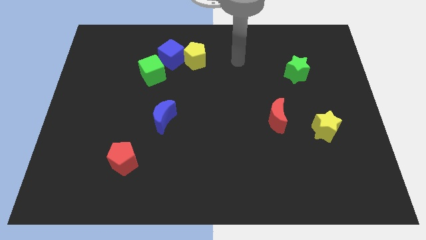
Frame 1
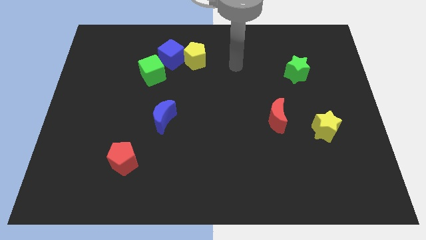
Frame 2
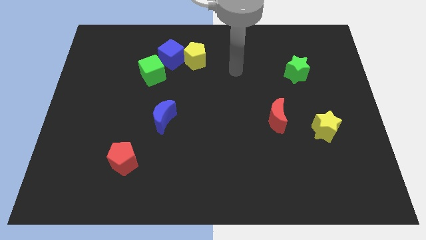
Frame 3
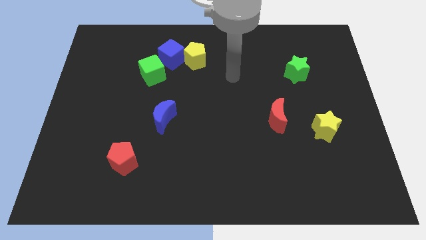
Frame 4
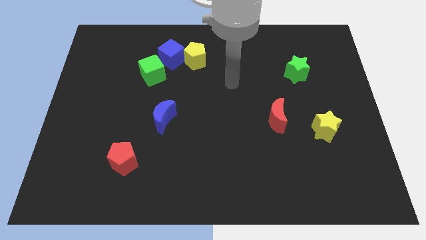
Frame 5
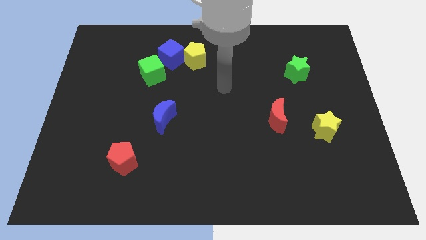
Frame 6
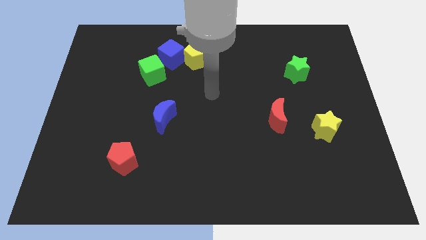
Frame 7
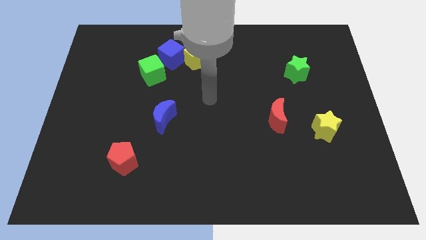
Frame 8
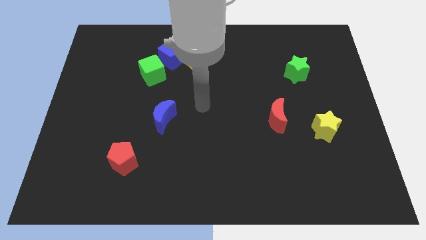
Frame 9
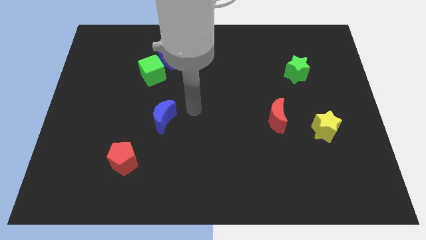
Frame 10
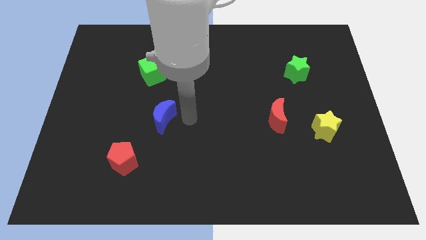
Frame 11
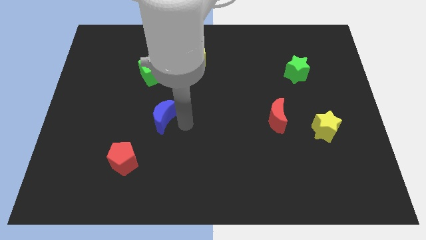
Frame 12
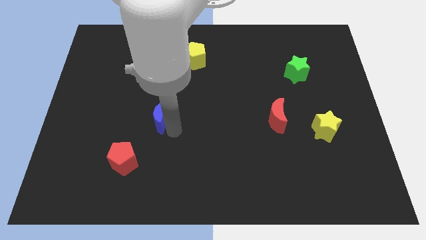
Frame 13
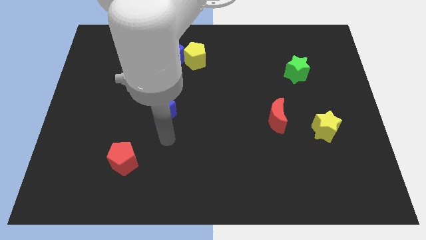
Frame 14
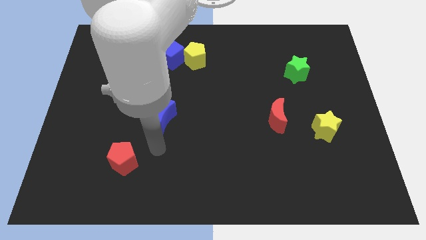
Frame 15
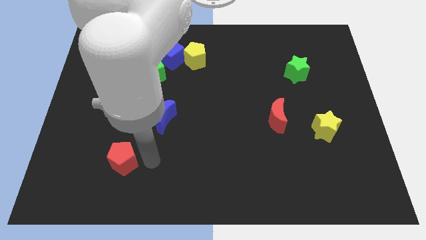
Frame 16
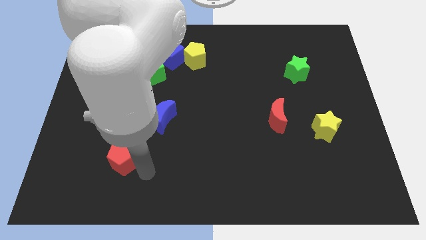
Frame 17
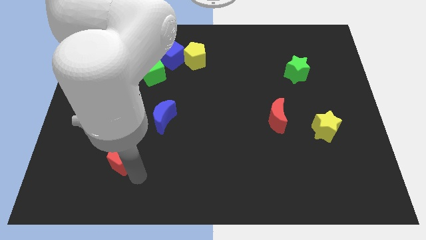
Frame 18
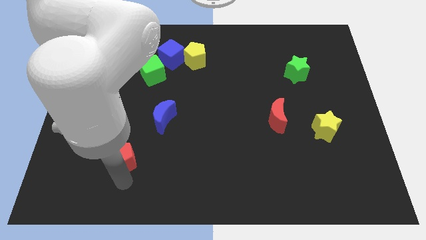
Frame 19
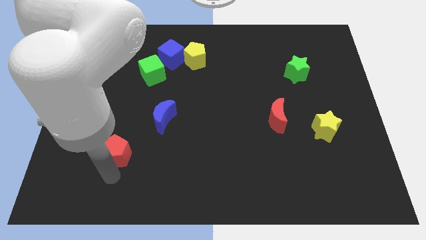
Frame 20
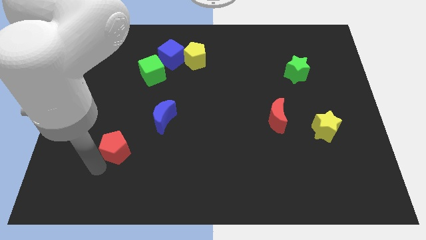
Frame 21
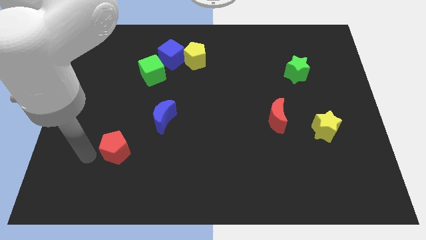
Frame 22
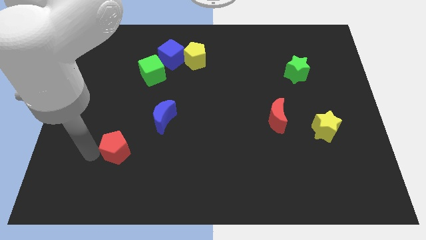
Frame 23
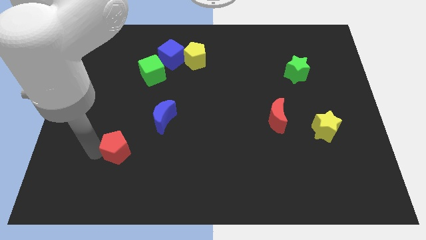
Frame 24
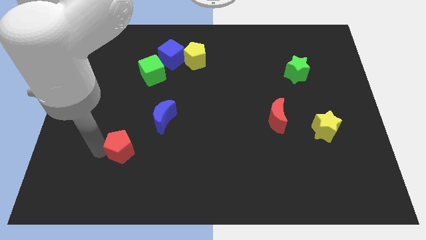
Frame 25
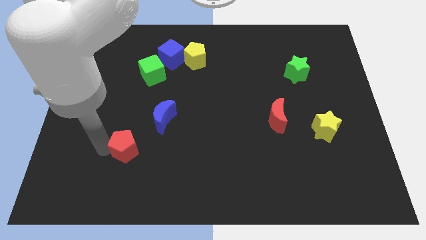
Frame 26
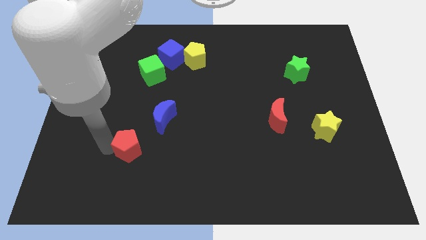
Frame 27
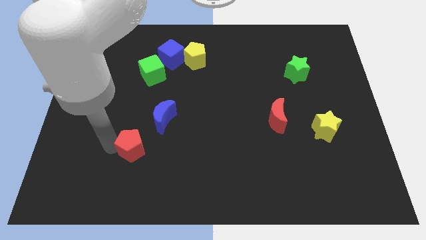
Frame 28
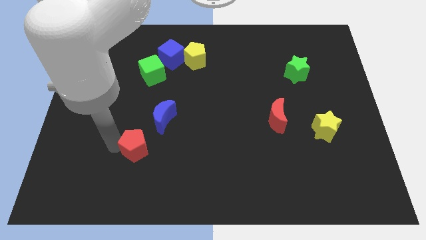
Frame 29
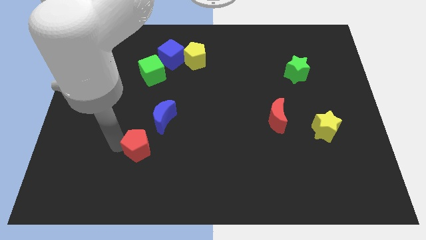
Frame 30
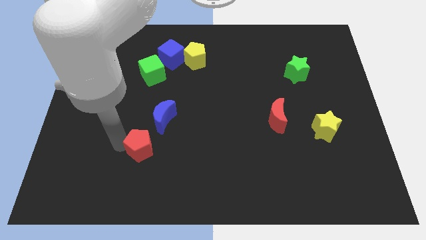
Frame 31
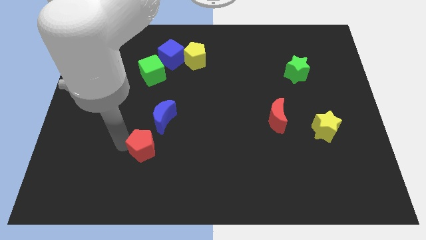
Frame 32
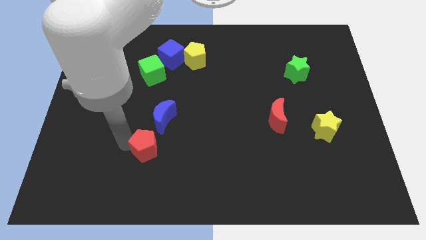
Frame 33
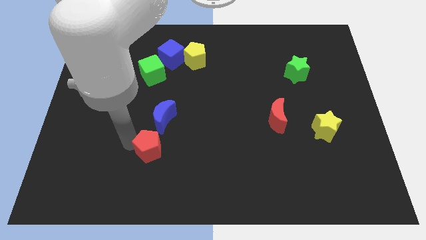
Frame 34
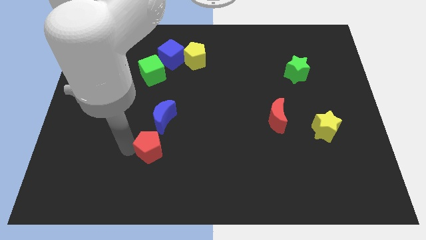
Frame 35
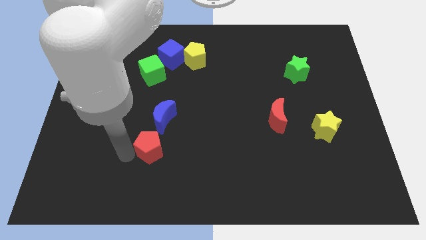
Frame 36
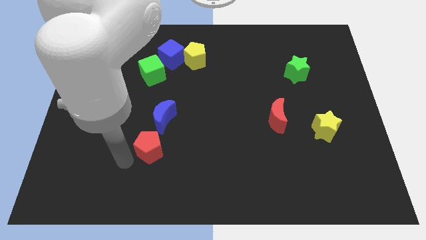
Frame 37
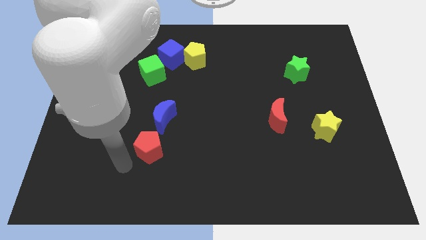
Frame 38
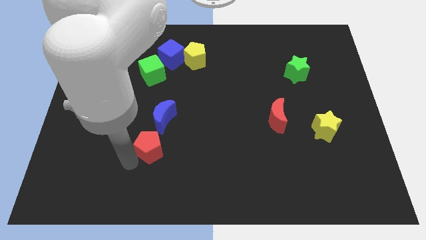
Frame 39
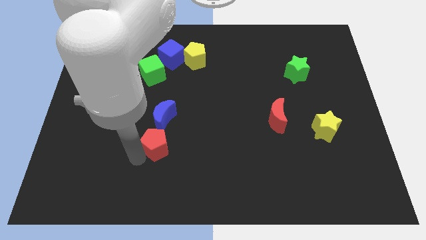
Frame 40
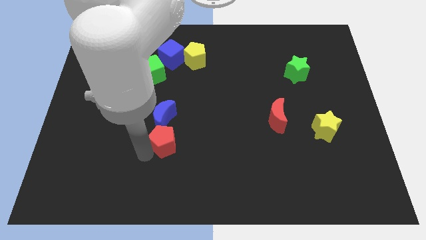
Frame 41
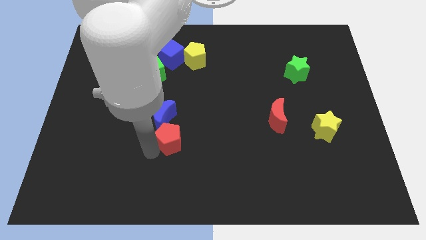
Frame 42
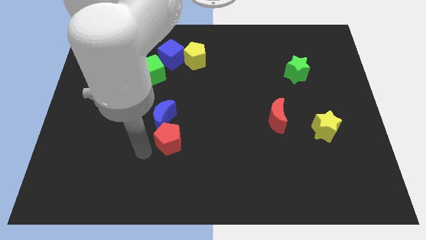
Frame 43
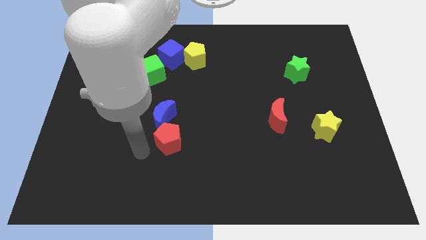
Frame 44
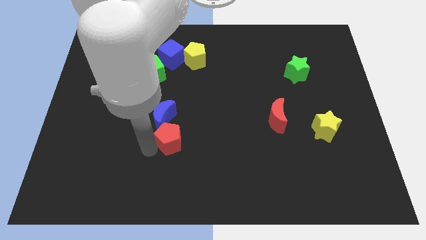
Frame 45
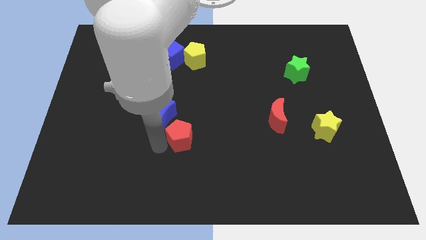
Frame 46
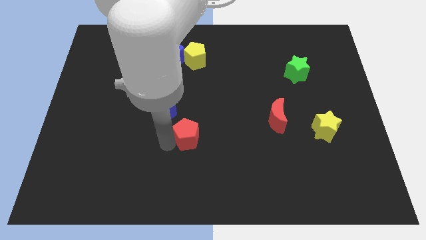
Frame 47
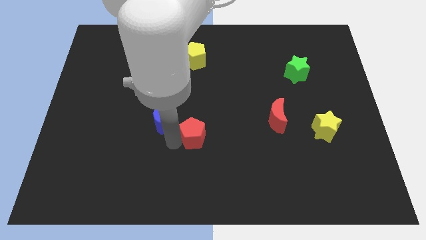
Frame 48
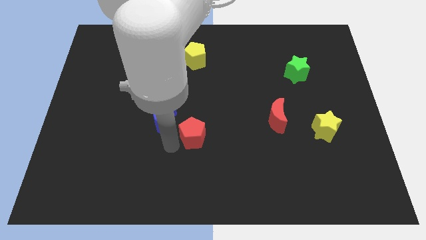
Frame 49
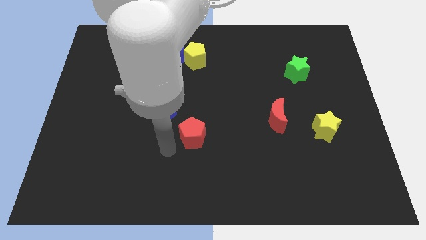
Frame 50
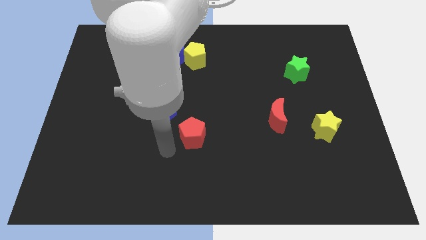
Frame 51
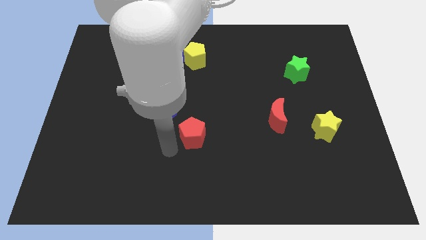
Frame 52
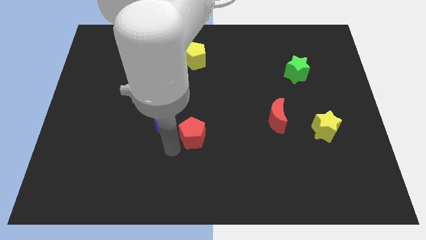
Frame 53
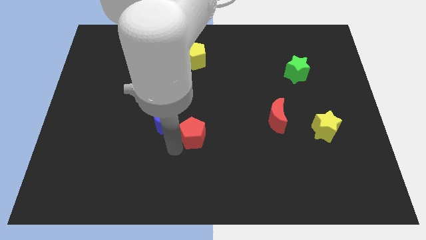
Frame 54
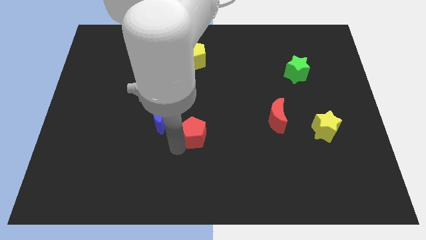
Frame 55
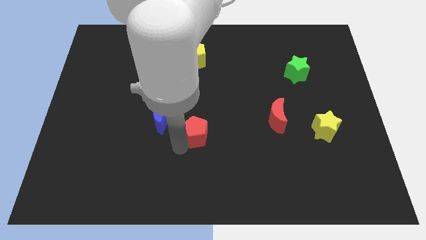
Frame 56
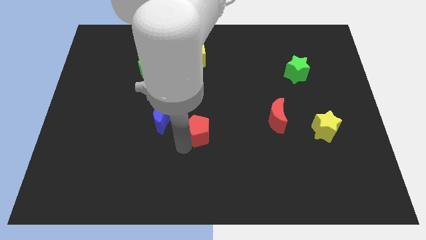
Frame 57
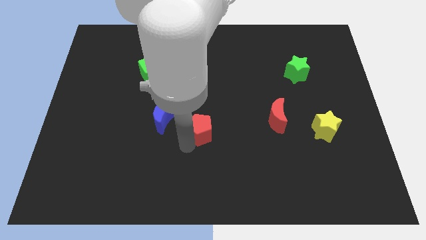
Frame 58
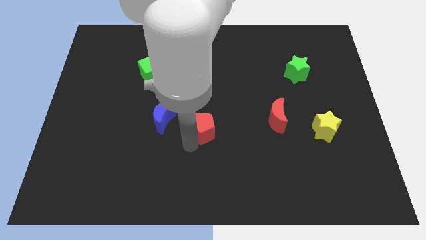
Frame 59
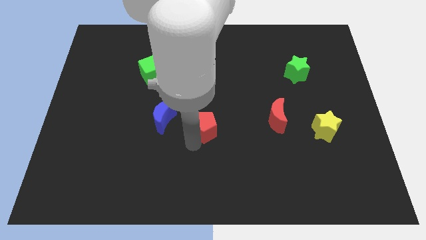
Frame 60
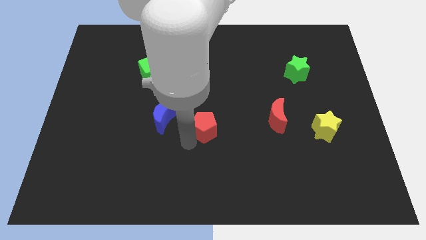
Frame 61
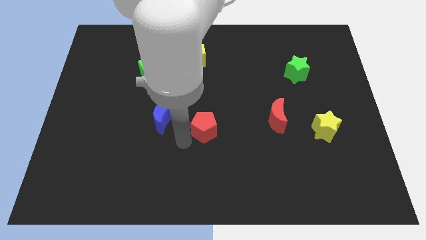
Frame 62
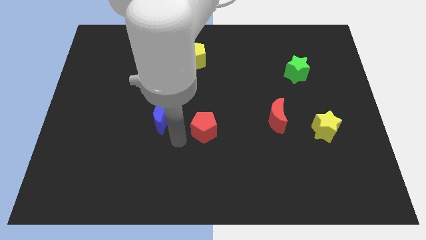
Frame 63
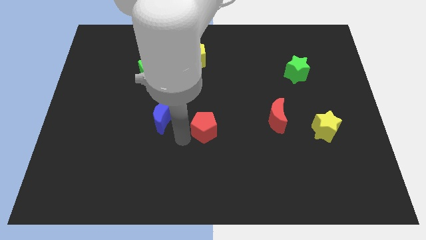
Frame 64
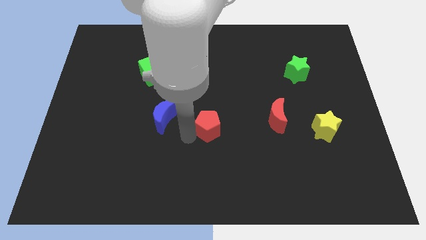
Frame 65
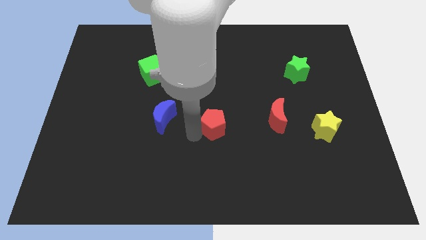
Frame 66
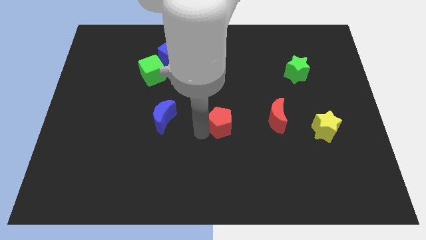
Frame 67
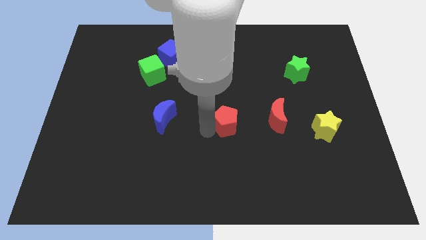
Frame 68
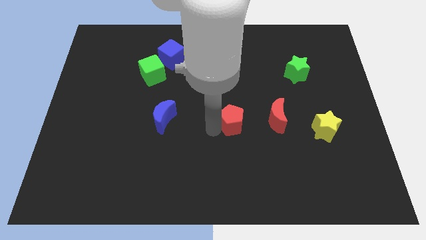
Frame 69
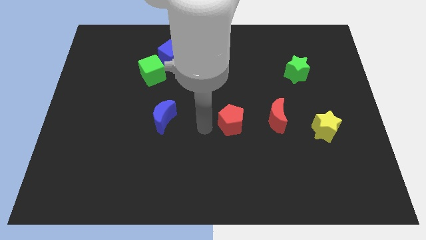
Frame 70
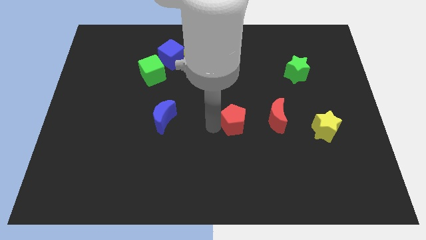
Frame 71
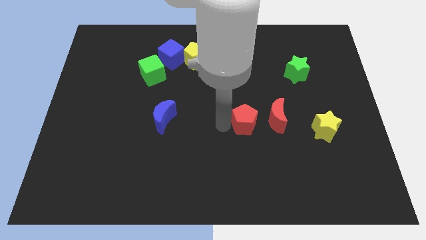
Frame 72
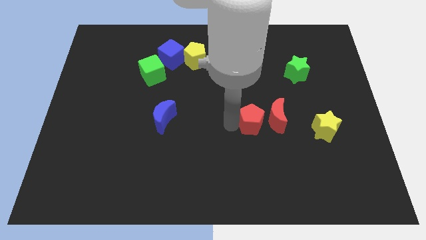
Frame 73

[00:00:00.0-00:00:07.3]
push the red pentagon next to the red moon
